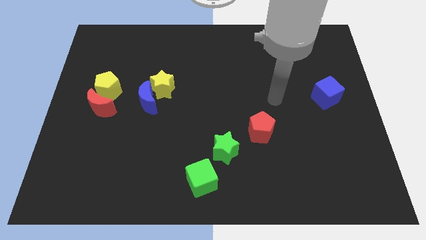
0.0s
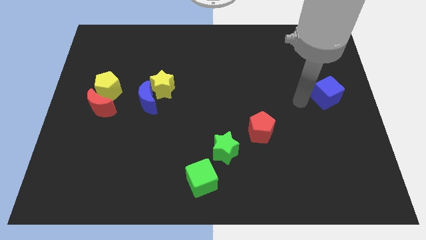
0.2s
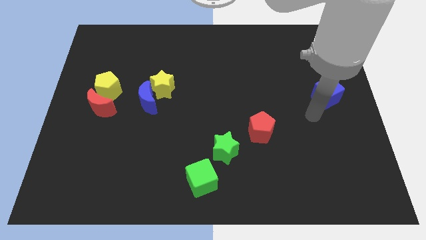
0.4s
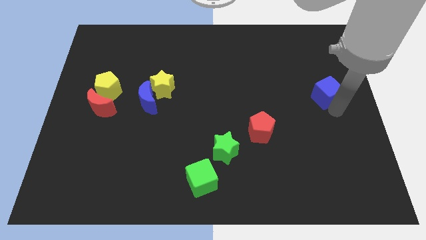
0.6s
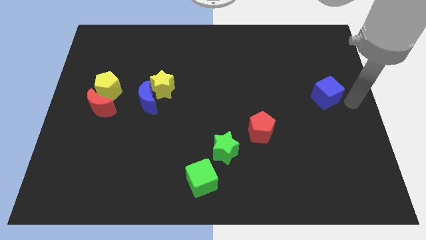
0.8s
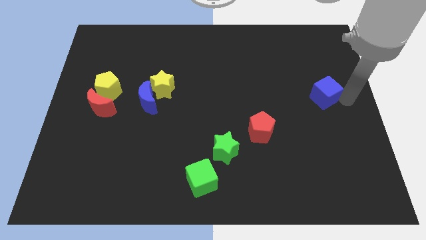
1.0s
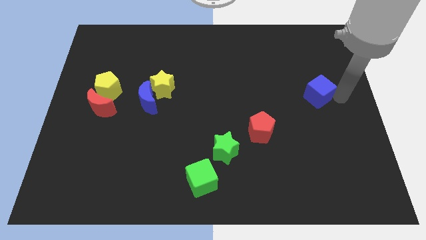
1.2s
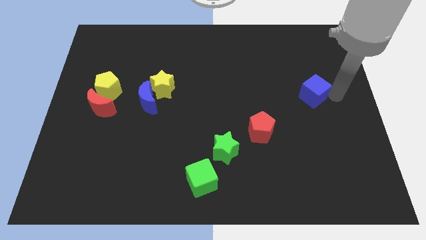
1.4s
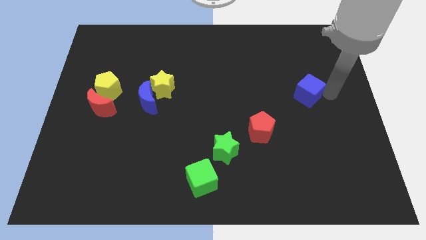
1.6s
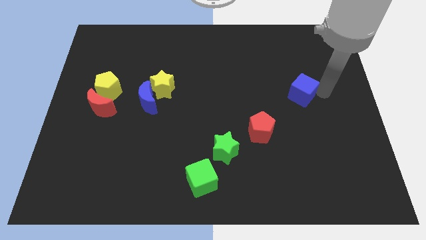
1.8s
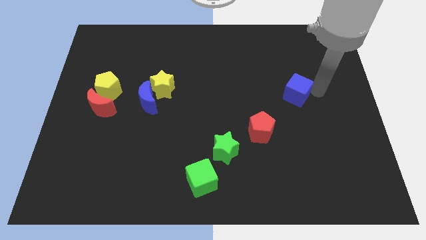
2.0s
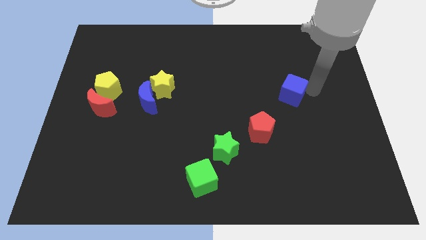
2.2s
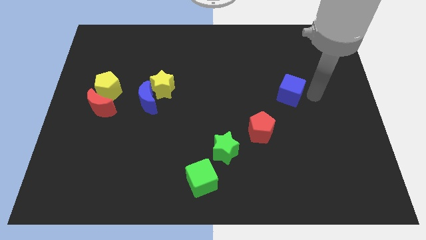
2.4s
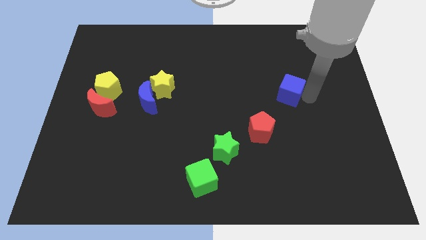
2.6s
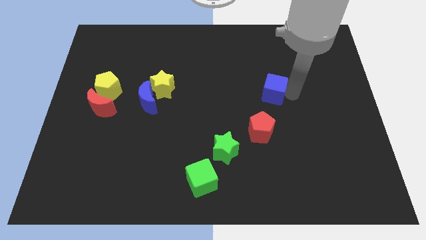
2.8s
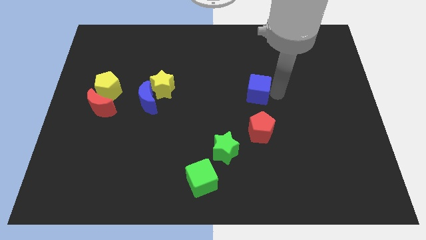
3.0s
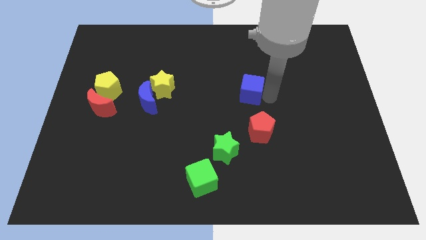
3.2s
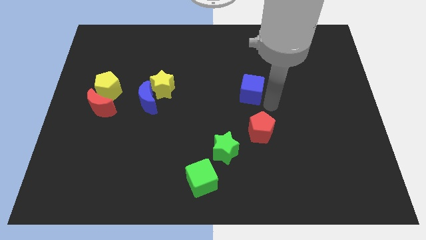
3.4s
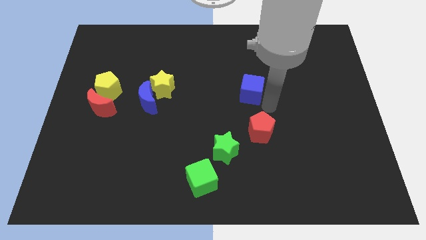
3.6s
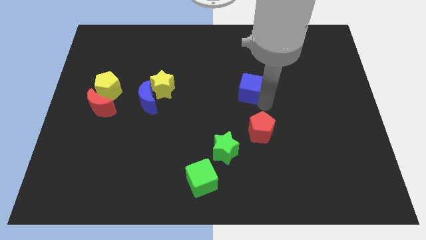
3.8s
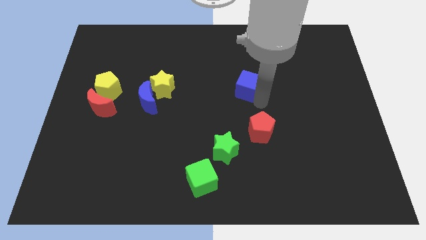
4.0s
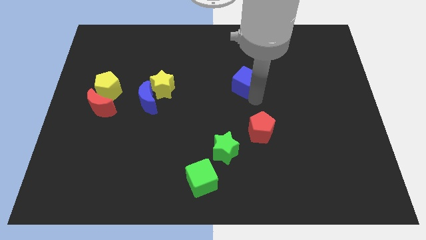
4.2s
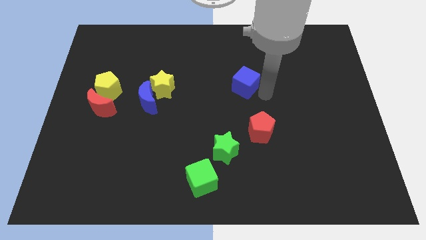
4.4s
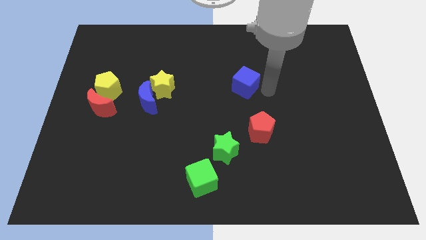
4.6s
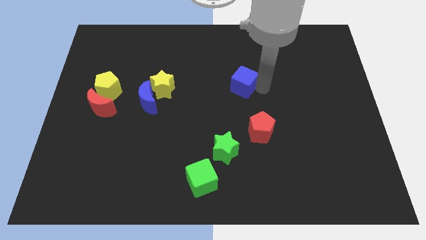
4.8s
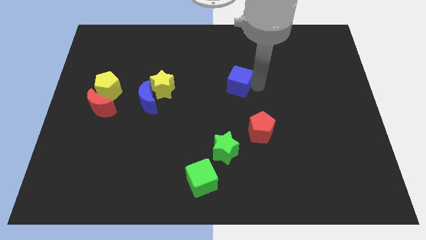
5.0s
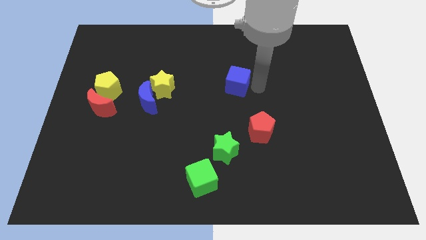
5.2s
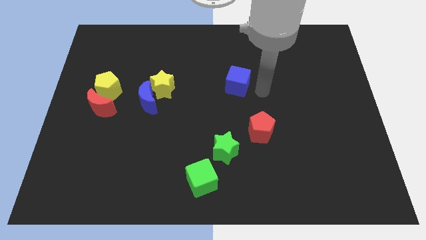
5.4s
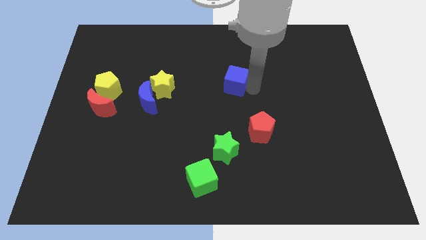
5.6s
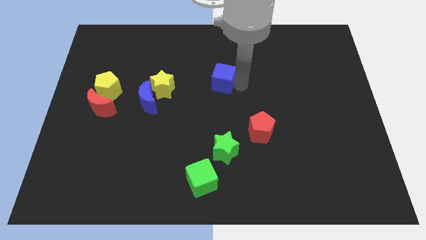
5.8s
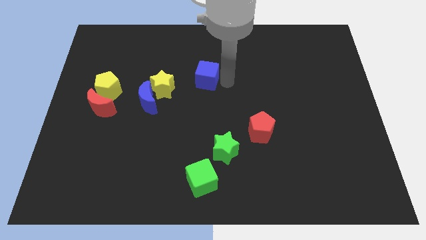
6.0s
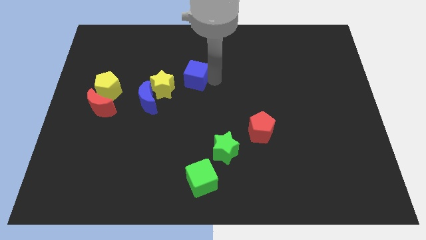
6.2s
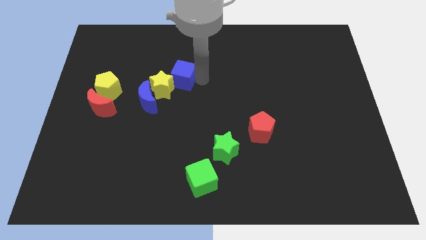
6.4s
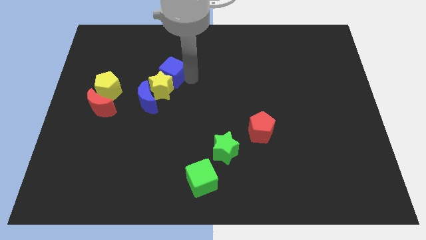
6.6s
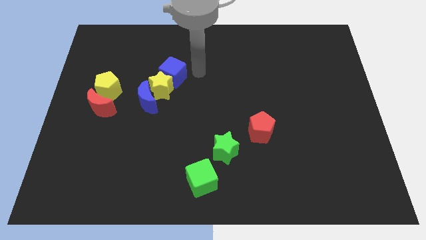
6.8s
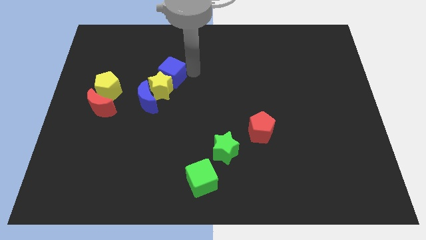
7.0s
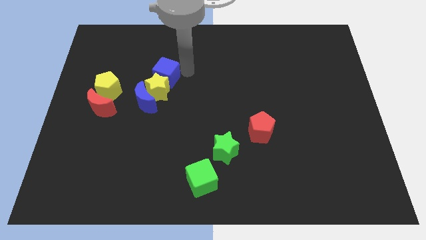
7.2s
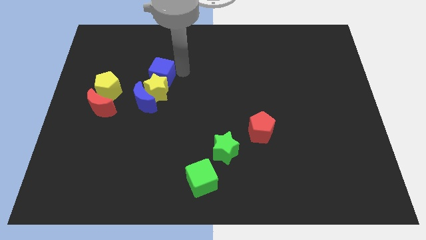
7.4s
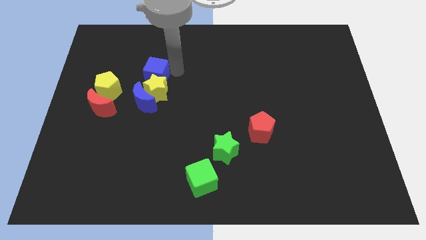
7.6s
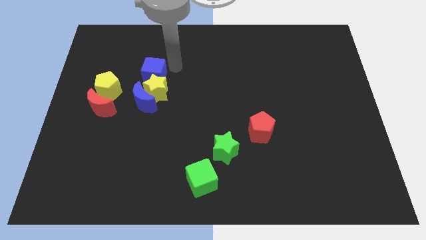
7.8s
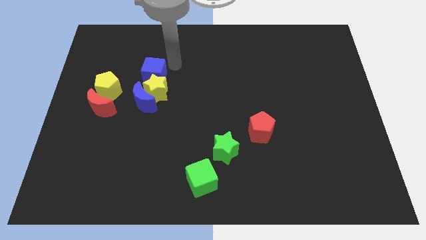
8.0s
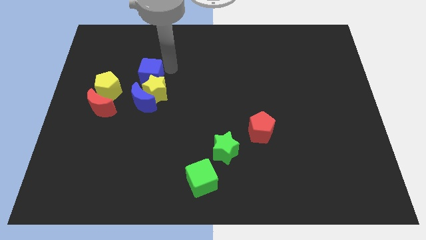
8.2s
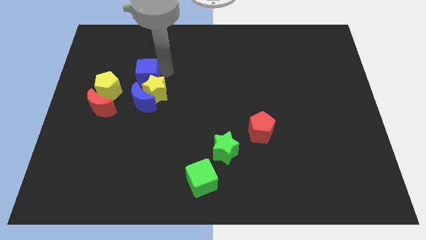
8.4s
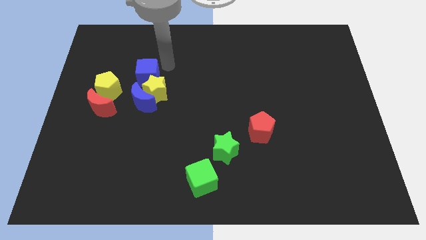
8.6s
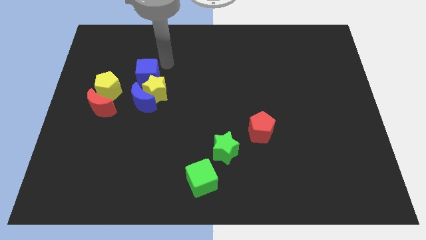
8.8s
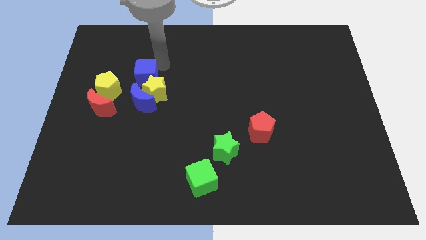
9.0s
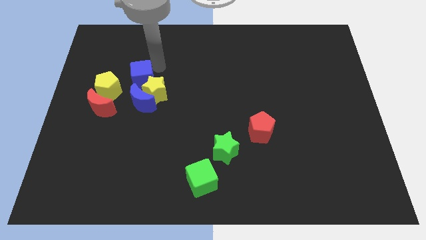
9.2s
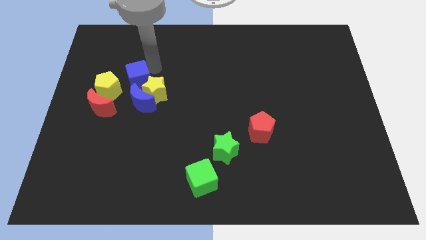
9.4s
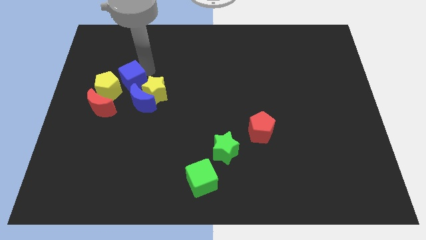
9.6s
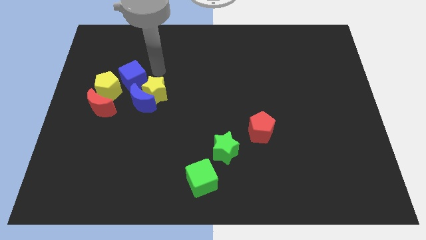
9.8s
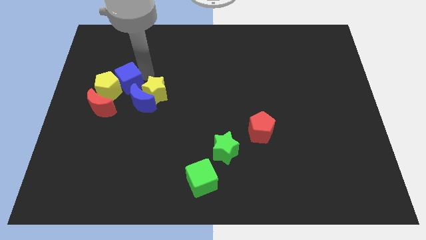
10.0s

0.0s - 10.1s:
put the blue cube to the yellow pentagon
